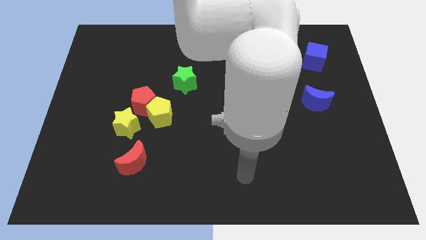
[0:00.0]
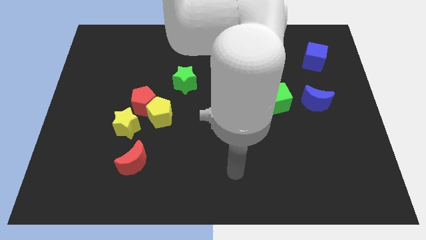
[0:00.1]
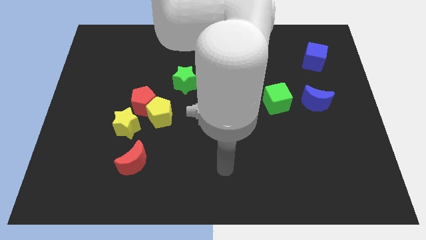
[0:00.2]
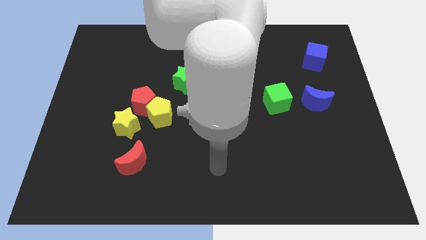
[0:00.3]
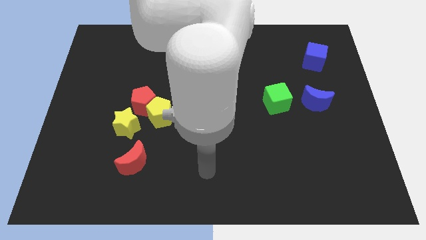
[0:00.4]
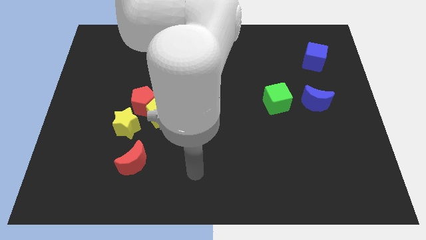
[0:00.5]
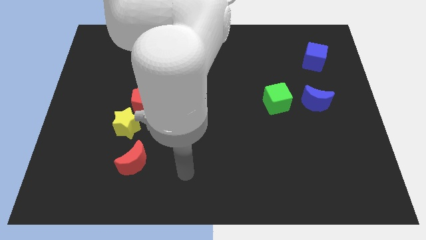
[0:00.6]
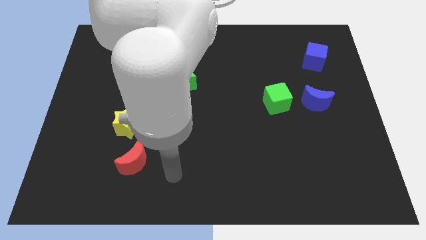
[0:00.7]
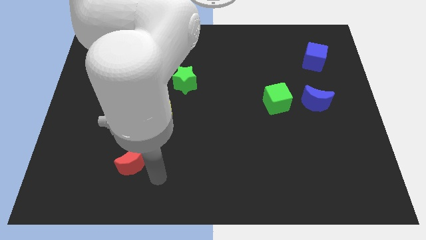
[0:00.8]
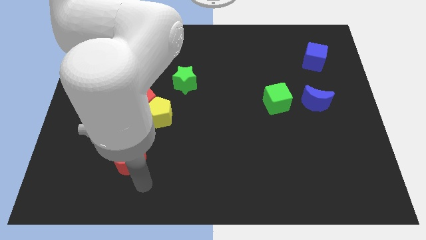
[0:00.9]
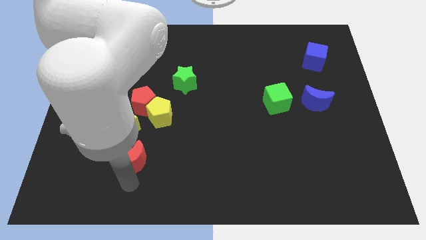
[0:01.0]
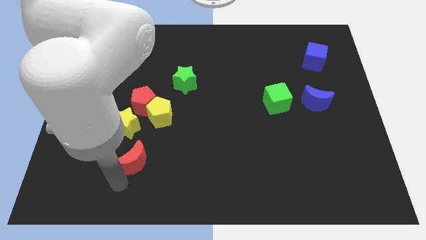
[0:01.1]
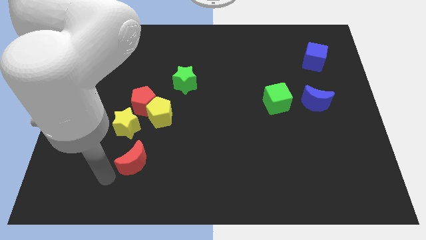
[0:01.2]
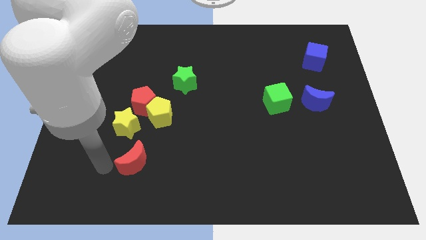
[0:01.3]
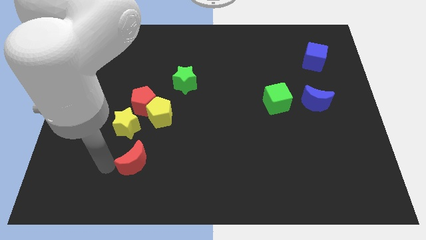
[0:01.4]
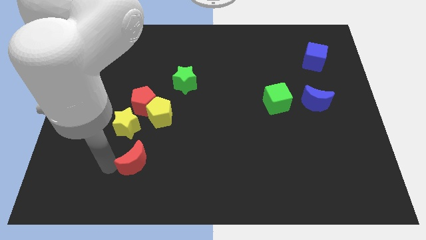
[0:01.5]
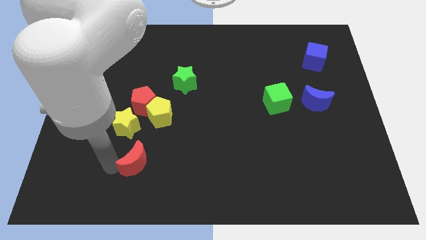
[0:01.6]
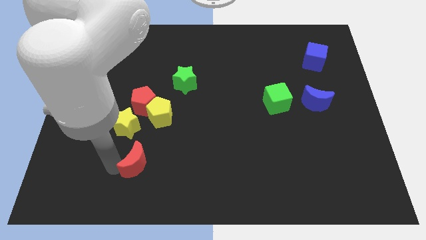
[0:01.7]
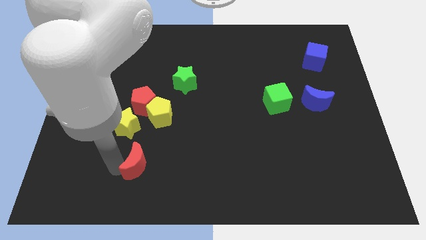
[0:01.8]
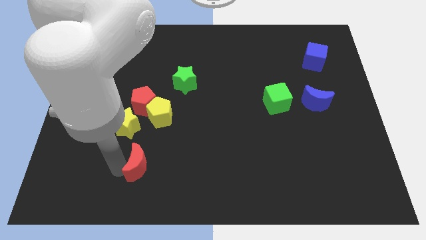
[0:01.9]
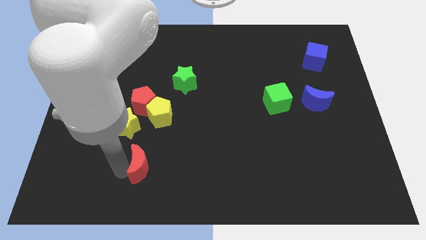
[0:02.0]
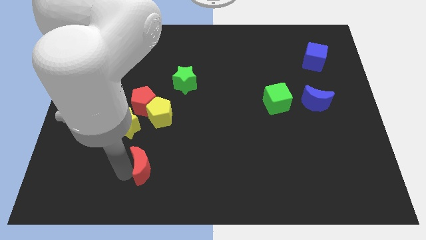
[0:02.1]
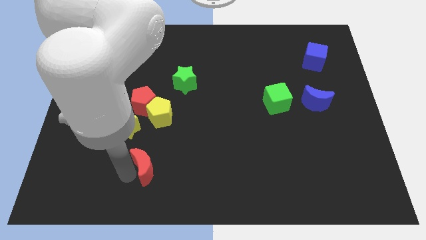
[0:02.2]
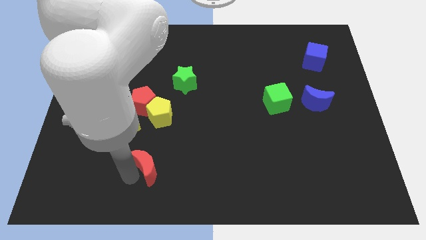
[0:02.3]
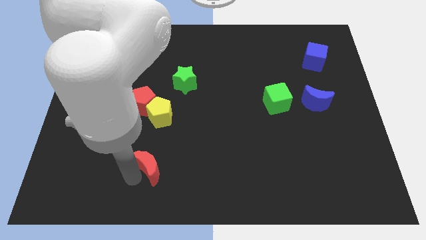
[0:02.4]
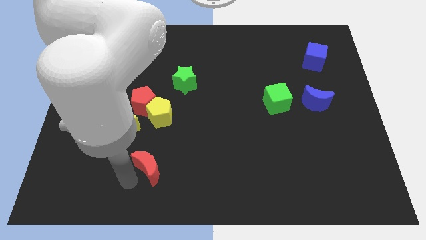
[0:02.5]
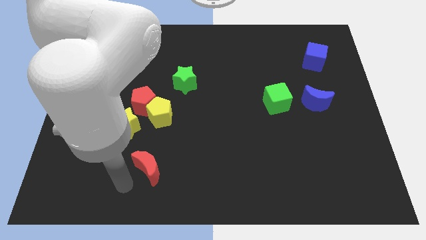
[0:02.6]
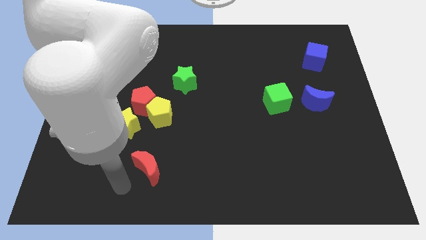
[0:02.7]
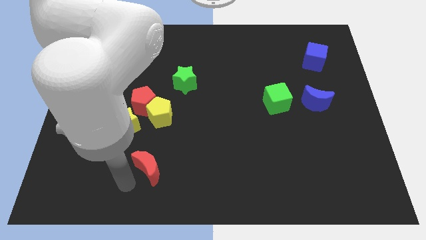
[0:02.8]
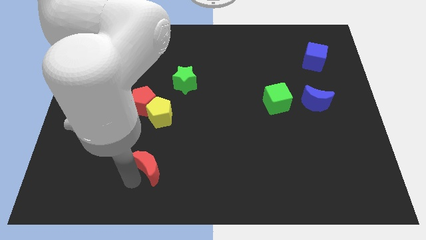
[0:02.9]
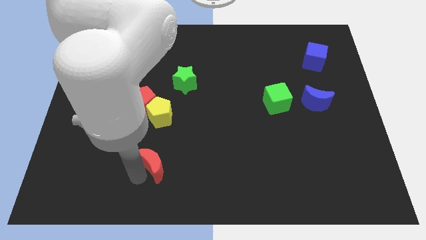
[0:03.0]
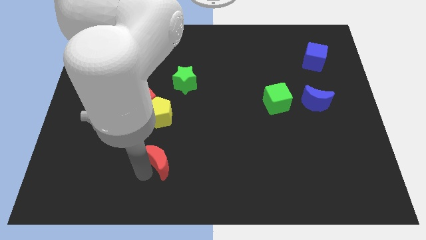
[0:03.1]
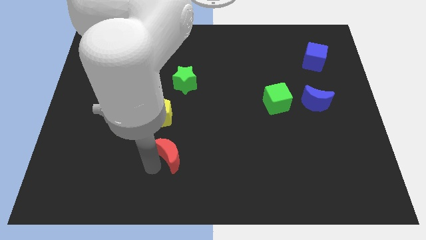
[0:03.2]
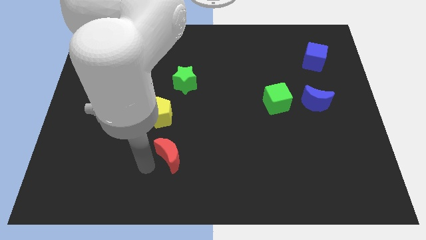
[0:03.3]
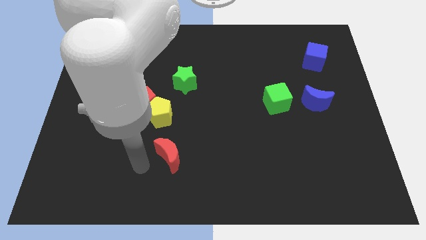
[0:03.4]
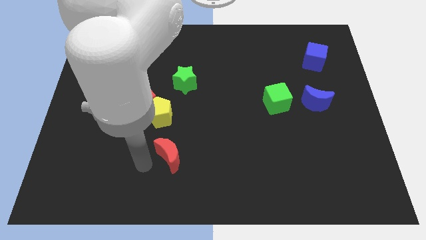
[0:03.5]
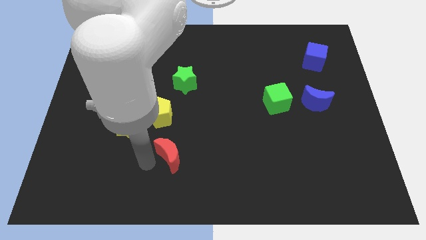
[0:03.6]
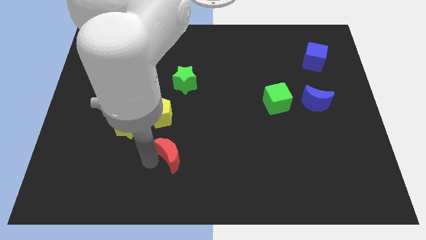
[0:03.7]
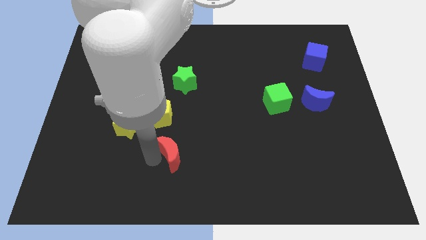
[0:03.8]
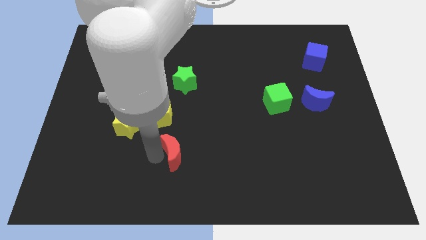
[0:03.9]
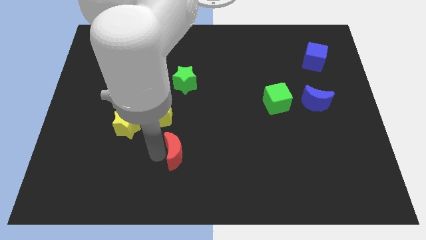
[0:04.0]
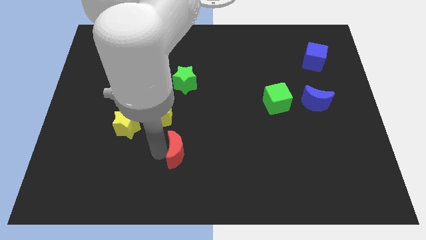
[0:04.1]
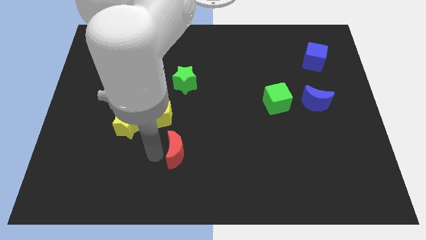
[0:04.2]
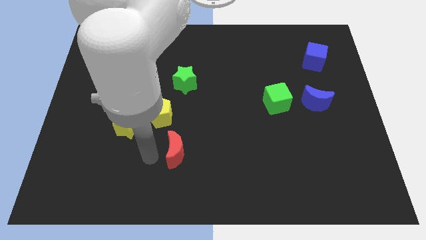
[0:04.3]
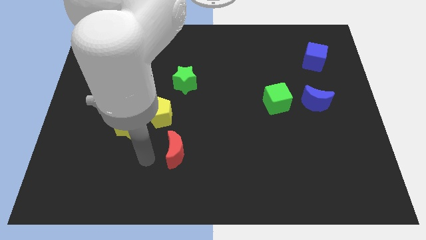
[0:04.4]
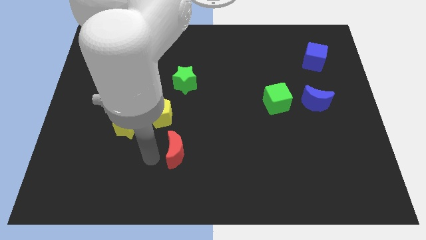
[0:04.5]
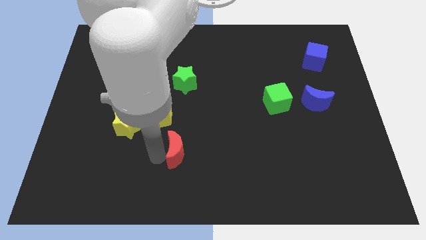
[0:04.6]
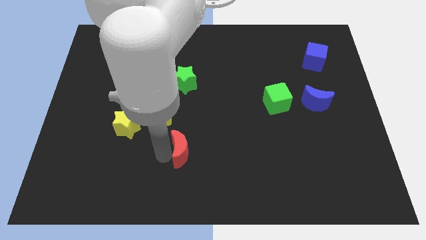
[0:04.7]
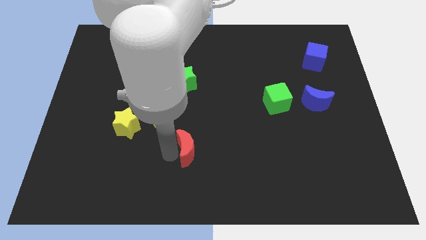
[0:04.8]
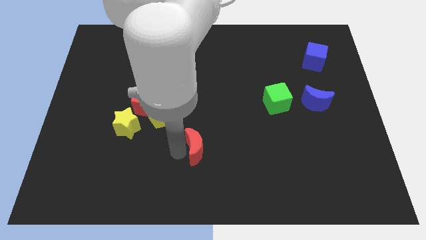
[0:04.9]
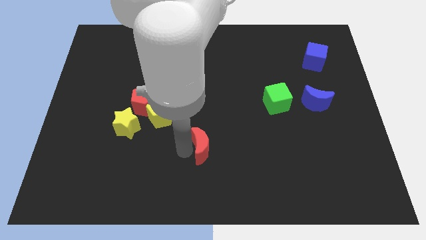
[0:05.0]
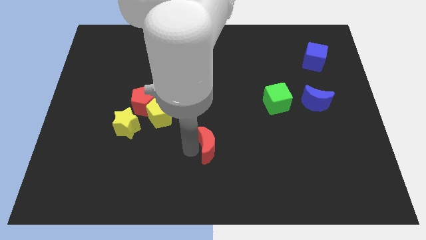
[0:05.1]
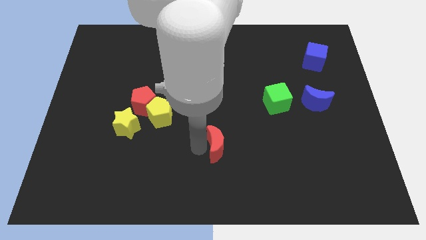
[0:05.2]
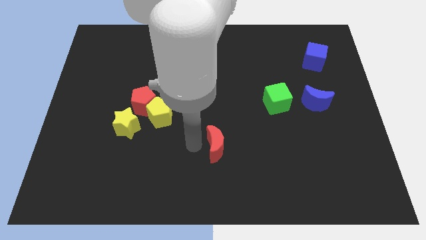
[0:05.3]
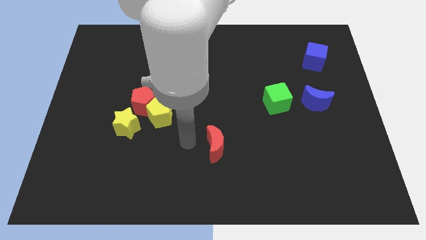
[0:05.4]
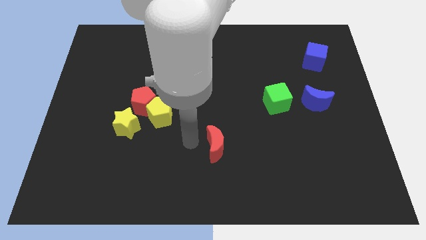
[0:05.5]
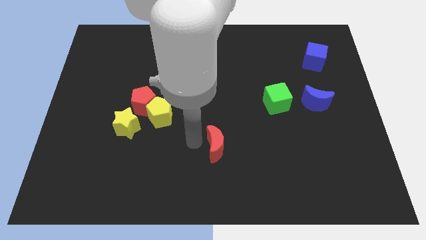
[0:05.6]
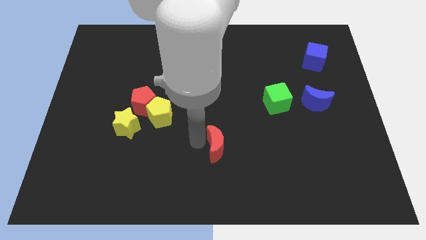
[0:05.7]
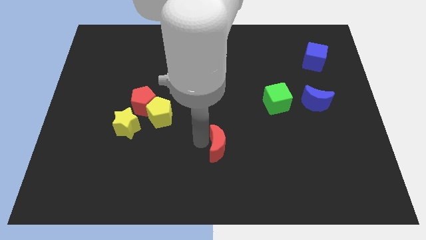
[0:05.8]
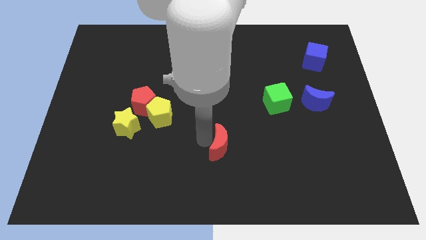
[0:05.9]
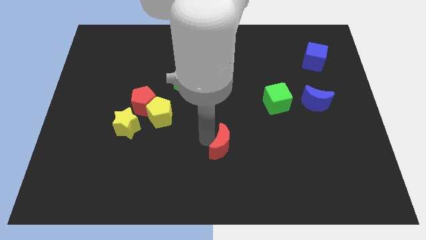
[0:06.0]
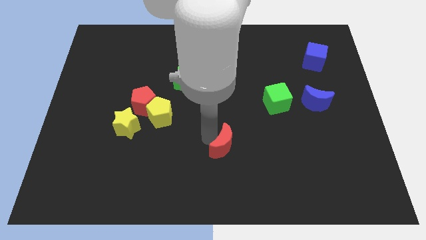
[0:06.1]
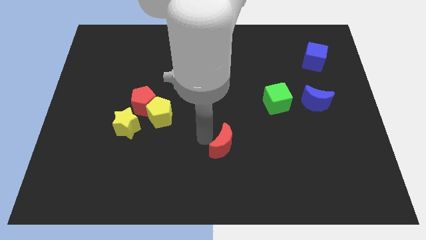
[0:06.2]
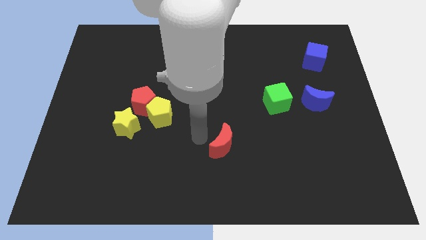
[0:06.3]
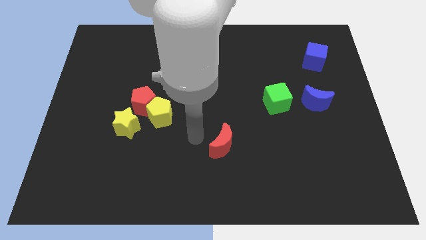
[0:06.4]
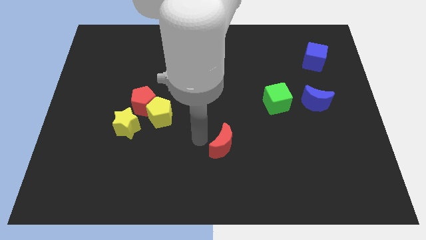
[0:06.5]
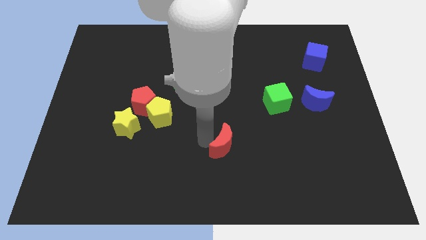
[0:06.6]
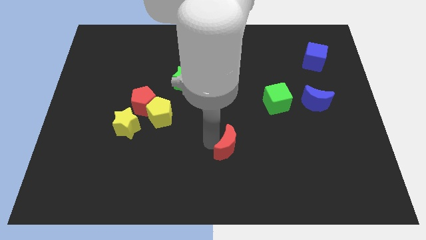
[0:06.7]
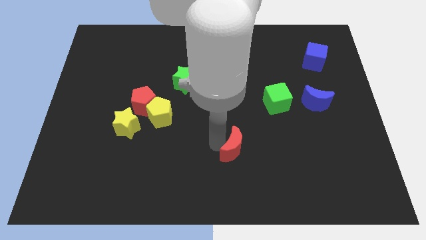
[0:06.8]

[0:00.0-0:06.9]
push the red moon to the right

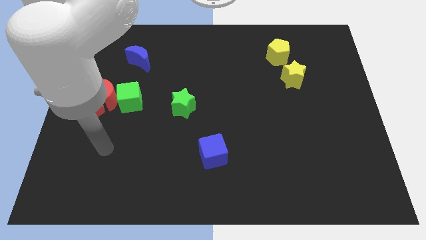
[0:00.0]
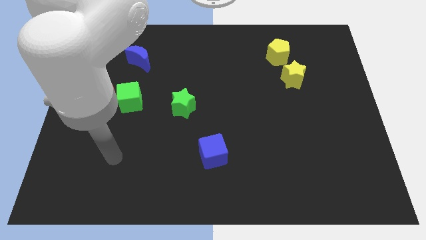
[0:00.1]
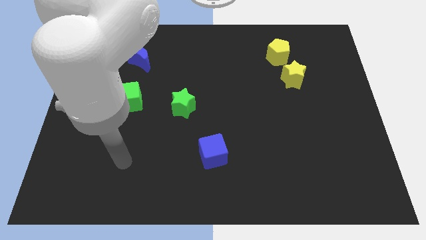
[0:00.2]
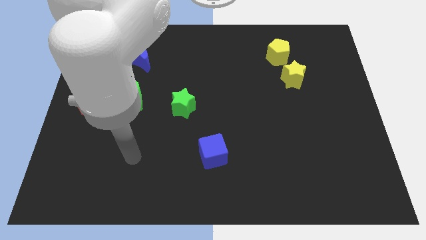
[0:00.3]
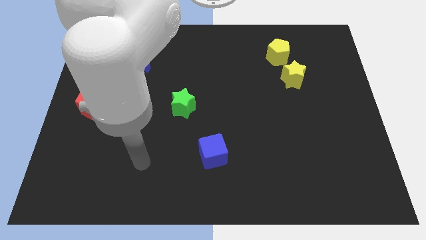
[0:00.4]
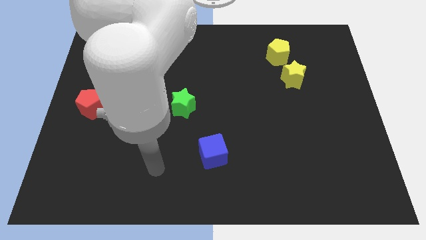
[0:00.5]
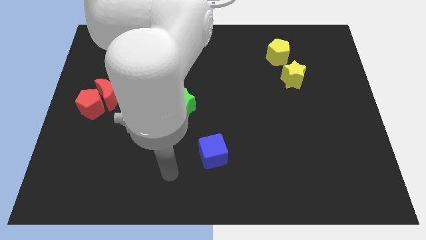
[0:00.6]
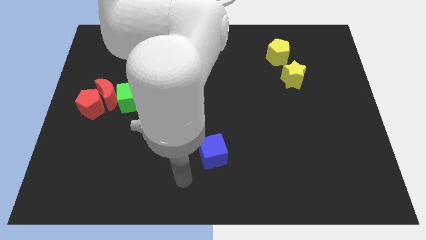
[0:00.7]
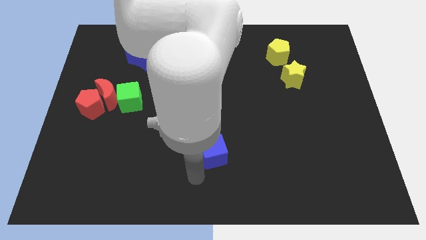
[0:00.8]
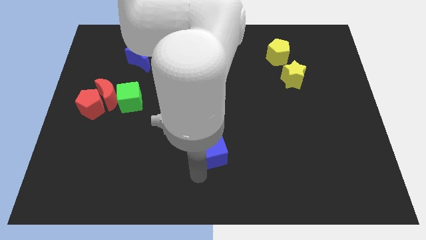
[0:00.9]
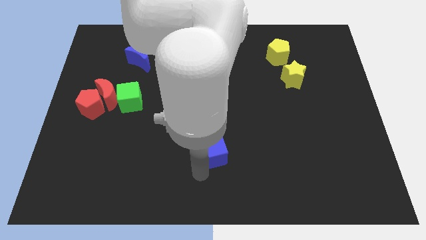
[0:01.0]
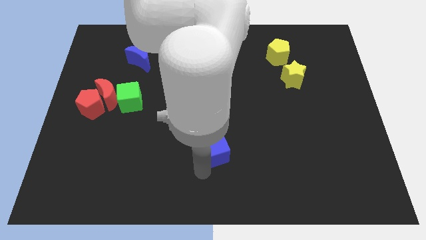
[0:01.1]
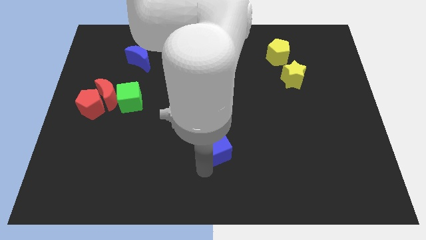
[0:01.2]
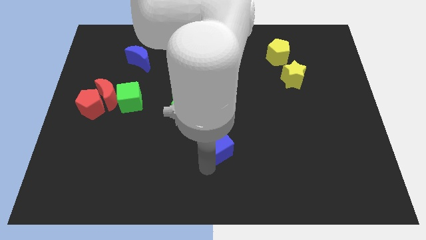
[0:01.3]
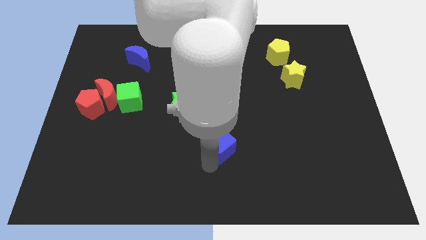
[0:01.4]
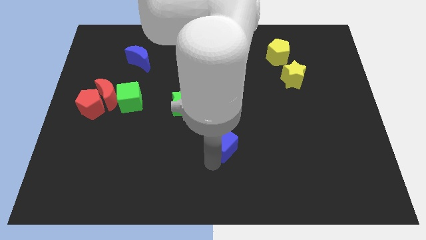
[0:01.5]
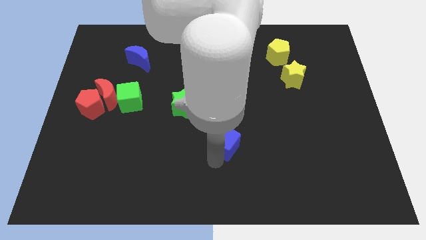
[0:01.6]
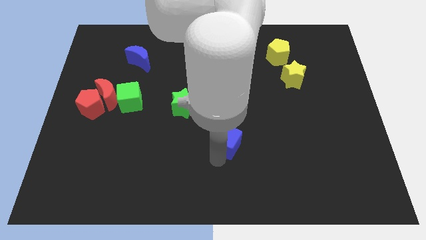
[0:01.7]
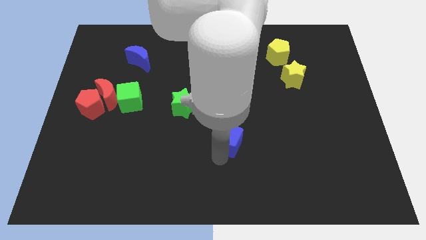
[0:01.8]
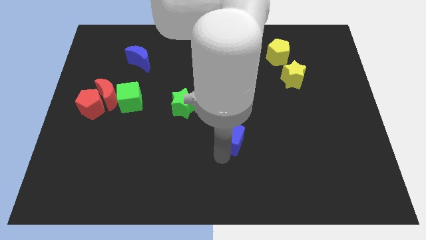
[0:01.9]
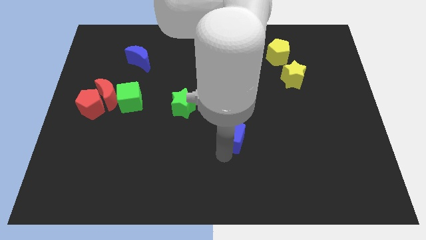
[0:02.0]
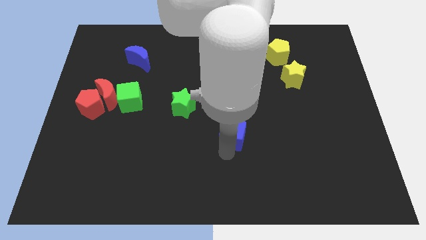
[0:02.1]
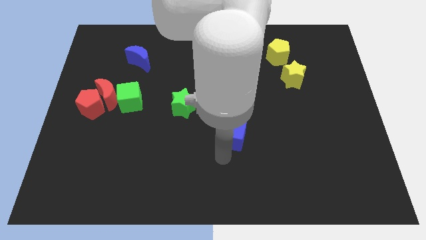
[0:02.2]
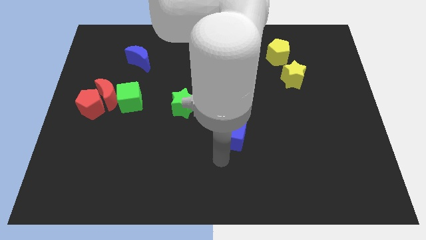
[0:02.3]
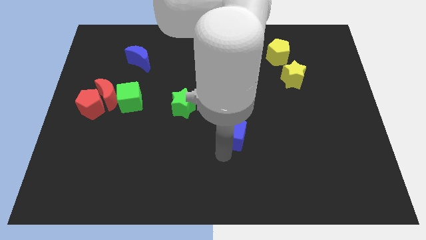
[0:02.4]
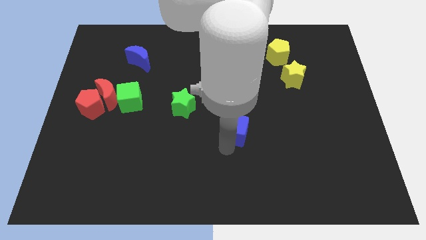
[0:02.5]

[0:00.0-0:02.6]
push the blue cube up and to the right diagonally somewhat
